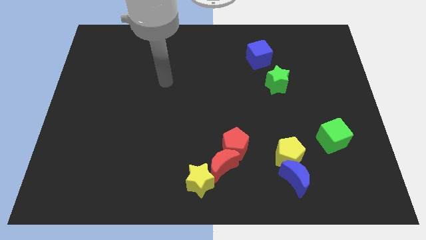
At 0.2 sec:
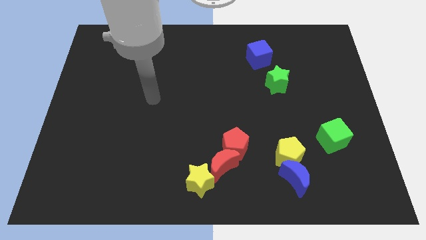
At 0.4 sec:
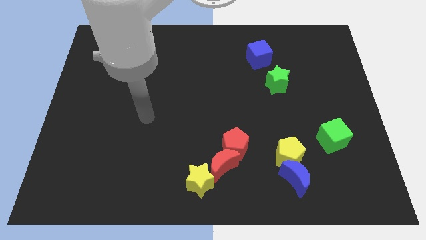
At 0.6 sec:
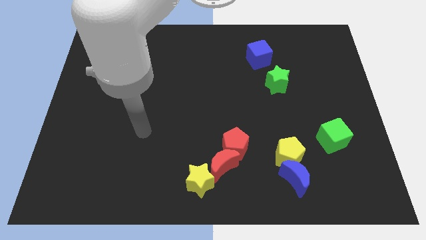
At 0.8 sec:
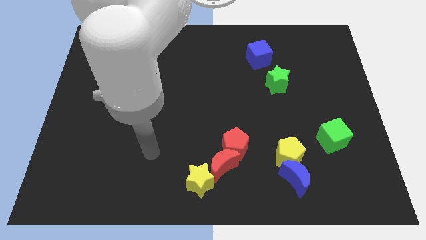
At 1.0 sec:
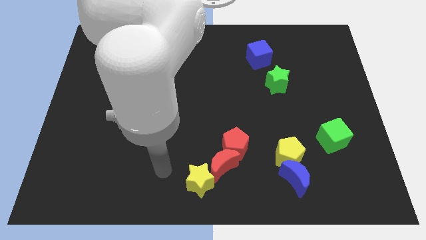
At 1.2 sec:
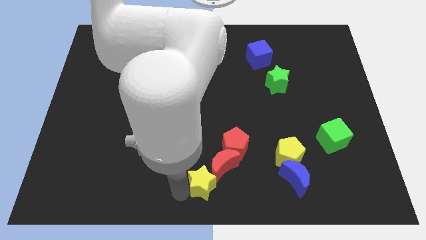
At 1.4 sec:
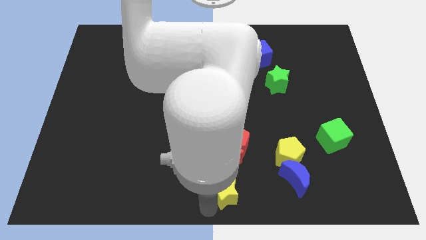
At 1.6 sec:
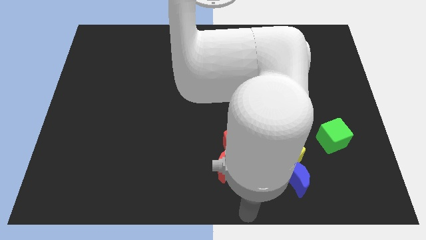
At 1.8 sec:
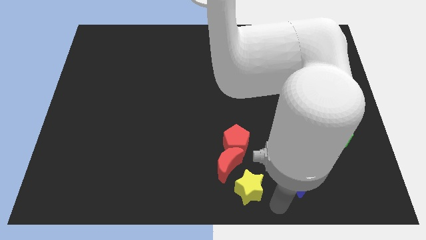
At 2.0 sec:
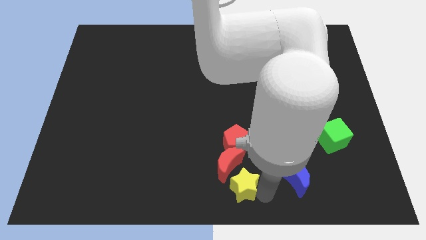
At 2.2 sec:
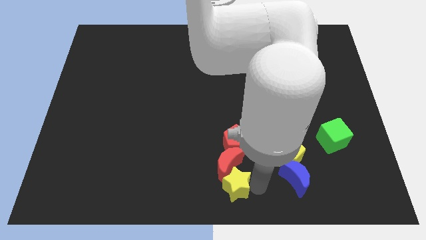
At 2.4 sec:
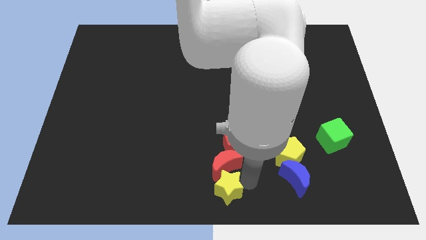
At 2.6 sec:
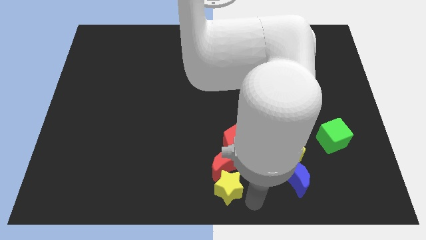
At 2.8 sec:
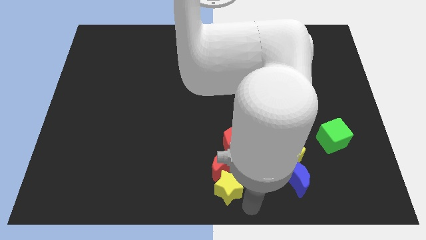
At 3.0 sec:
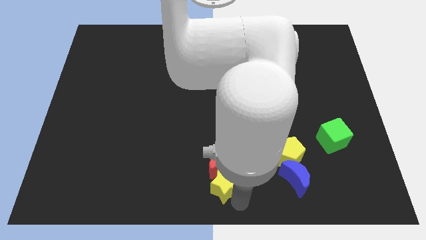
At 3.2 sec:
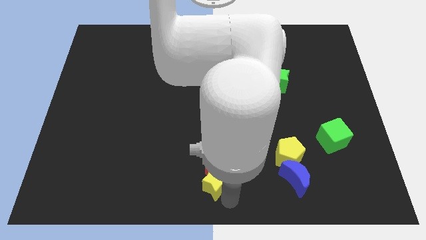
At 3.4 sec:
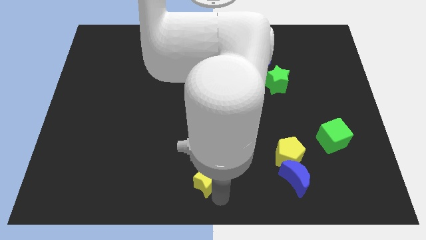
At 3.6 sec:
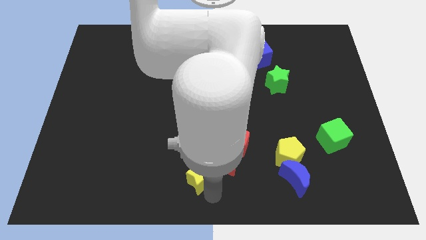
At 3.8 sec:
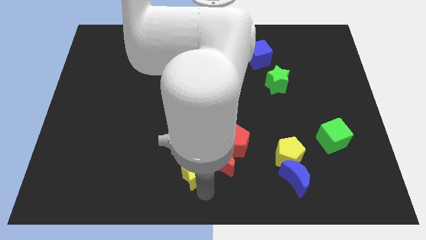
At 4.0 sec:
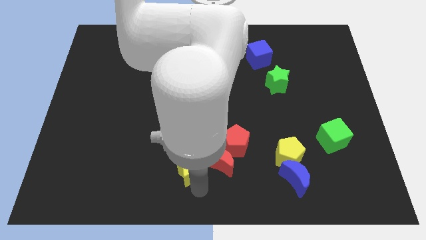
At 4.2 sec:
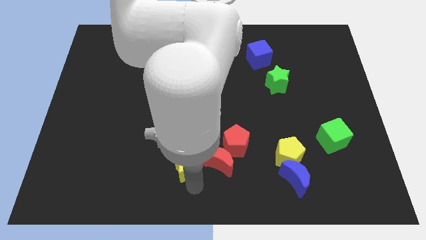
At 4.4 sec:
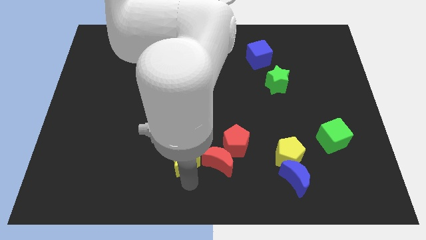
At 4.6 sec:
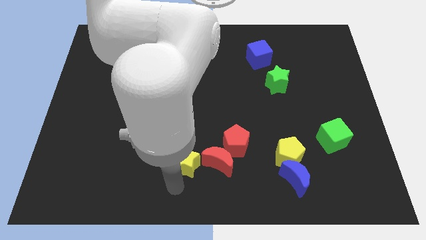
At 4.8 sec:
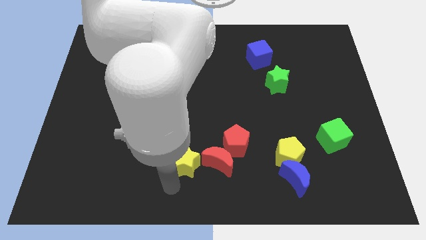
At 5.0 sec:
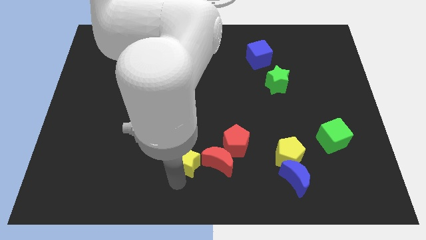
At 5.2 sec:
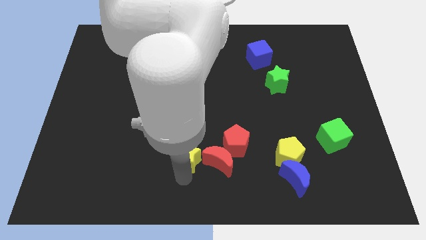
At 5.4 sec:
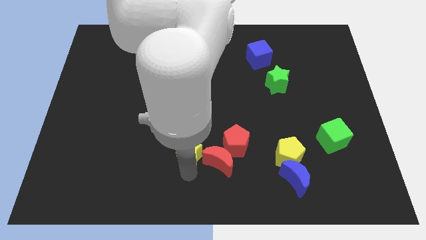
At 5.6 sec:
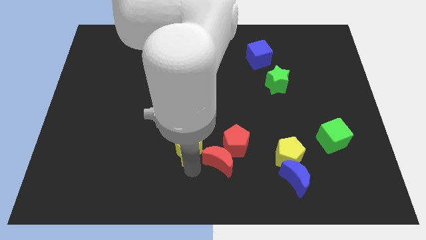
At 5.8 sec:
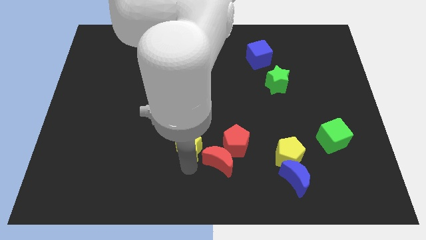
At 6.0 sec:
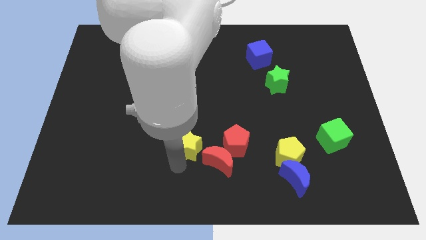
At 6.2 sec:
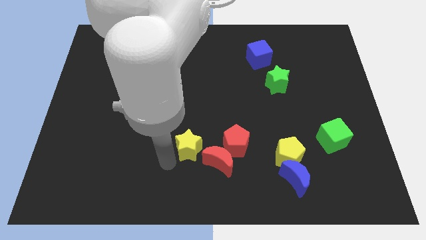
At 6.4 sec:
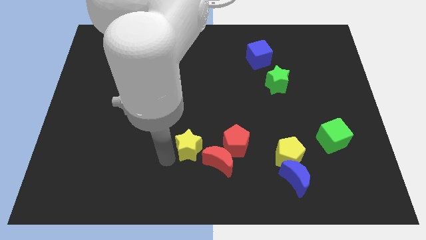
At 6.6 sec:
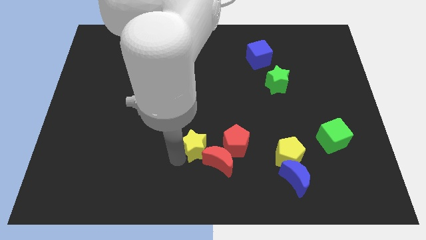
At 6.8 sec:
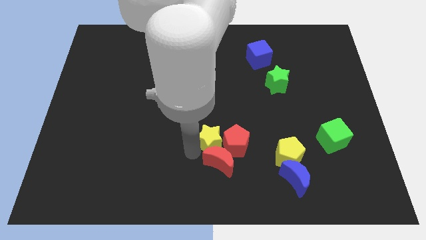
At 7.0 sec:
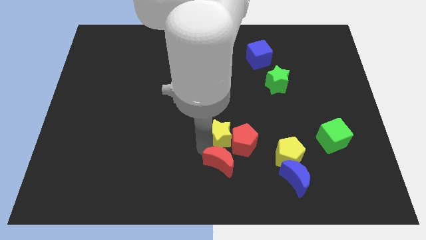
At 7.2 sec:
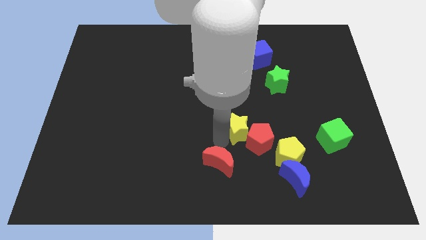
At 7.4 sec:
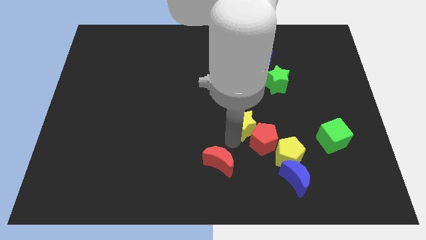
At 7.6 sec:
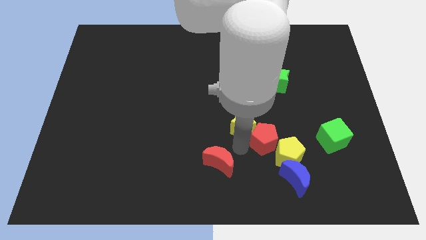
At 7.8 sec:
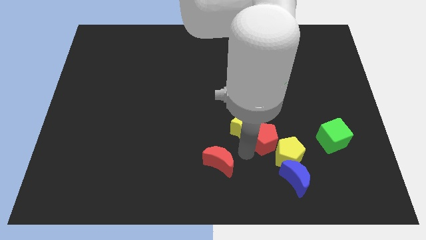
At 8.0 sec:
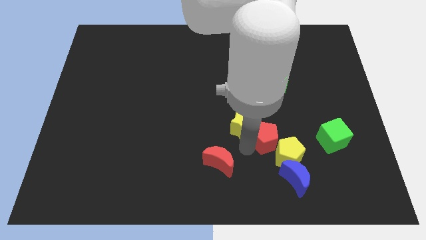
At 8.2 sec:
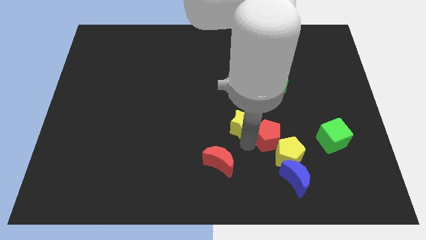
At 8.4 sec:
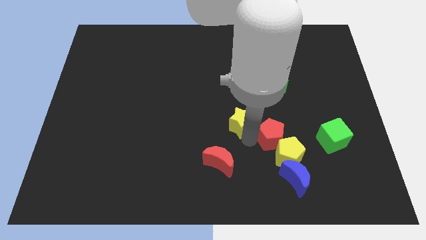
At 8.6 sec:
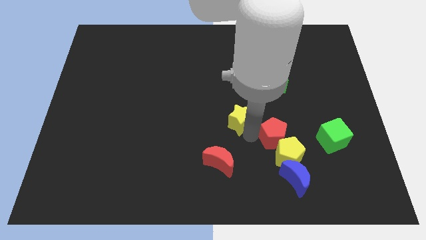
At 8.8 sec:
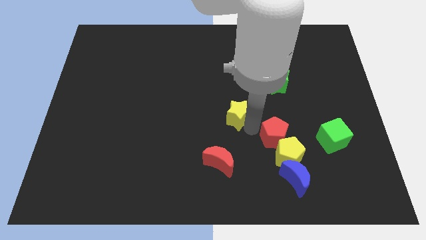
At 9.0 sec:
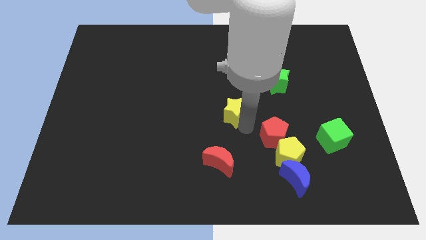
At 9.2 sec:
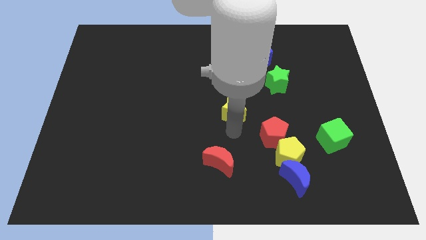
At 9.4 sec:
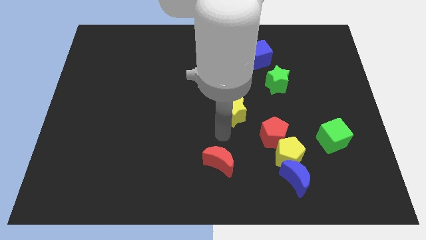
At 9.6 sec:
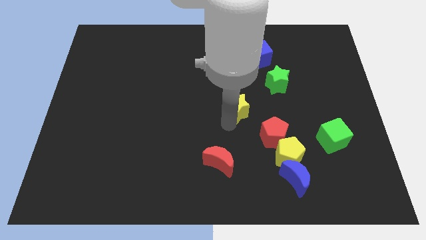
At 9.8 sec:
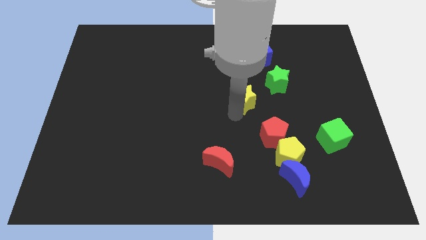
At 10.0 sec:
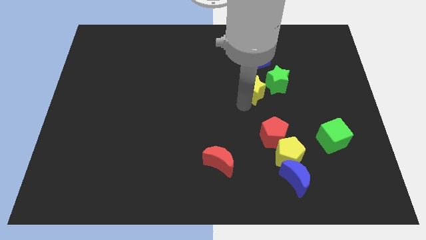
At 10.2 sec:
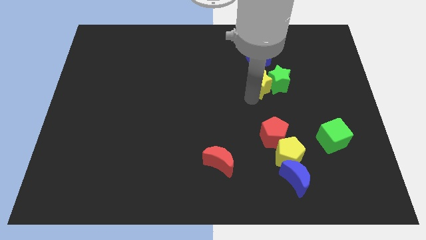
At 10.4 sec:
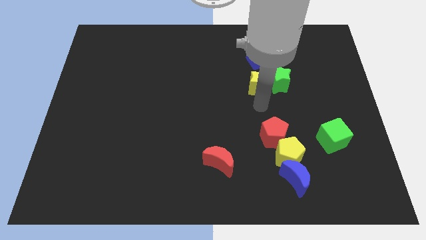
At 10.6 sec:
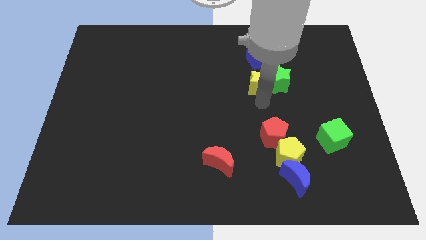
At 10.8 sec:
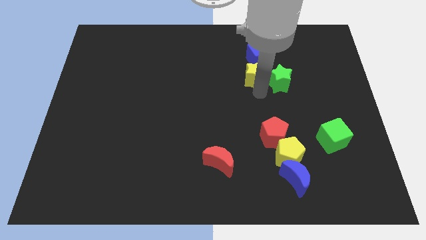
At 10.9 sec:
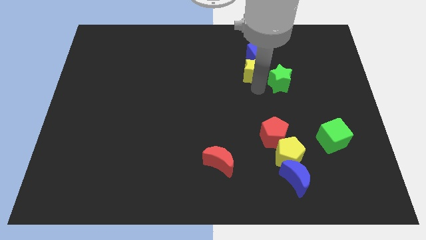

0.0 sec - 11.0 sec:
put the yellow star next to the blue cube

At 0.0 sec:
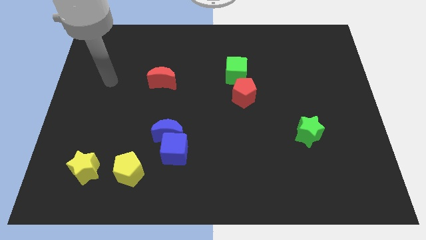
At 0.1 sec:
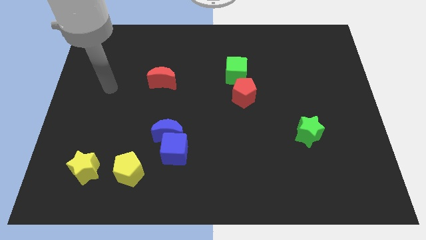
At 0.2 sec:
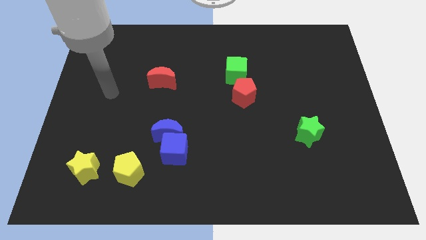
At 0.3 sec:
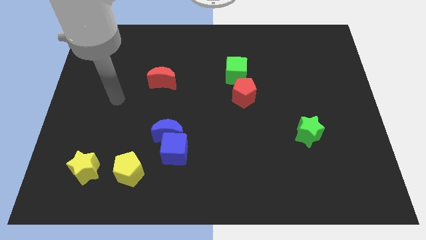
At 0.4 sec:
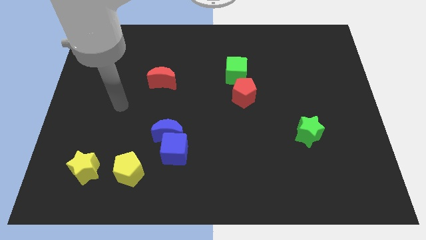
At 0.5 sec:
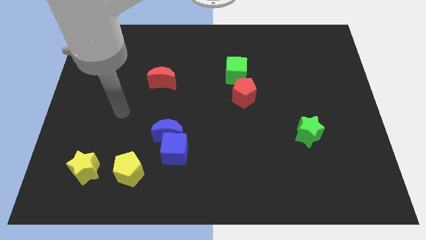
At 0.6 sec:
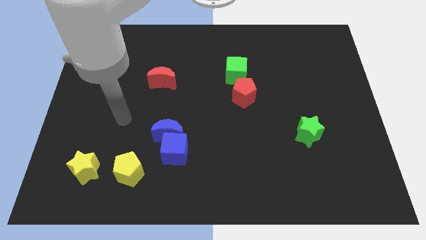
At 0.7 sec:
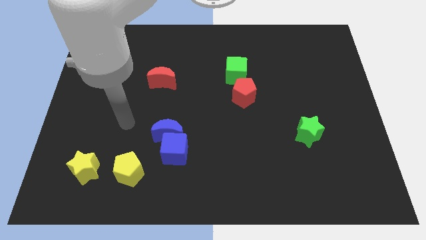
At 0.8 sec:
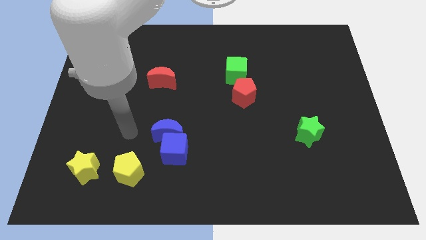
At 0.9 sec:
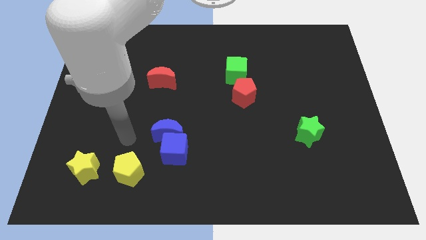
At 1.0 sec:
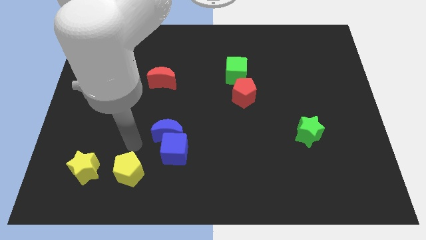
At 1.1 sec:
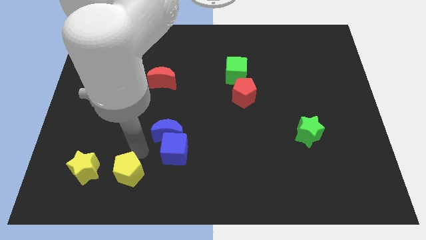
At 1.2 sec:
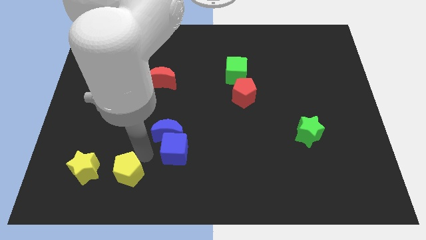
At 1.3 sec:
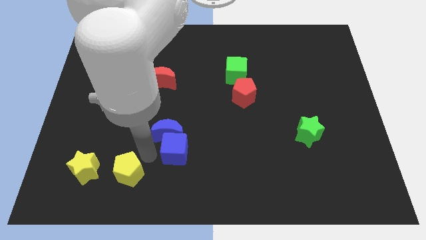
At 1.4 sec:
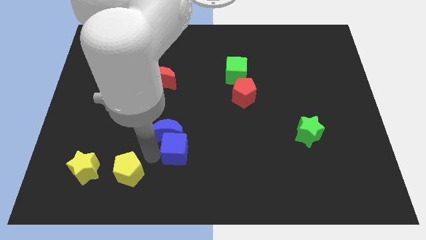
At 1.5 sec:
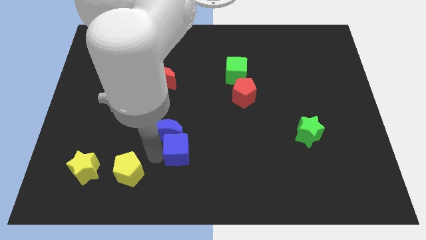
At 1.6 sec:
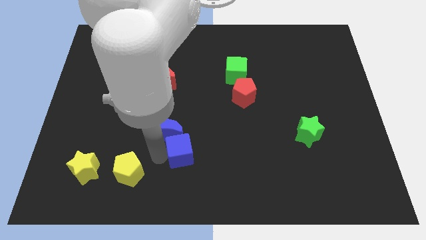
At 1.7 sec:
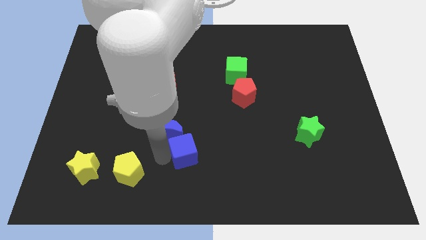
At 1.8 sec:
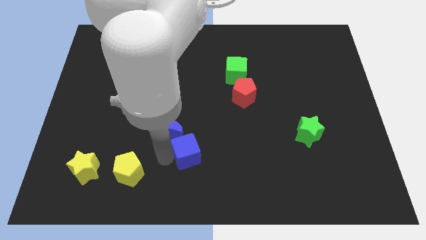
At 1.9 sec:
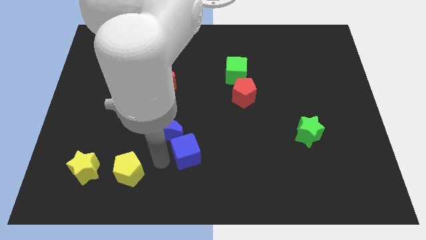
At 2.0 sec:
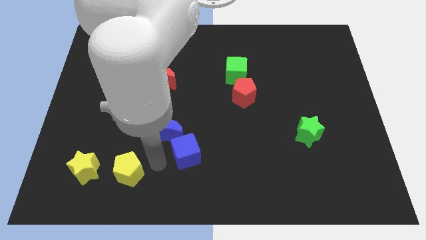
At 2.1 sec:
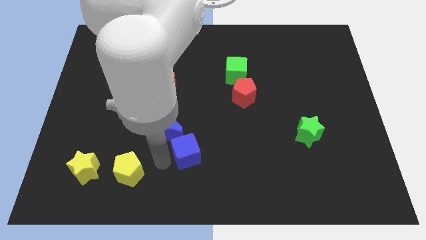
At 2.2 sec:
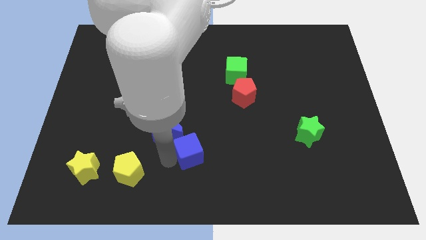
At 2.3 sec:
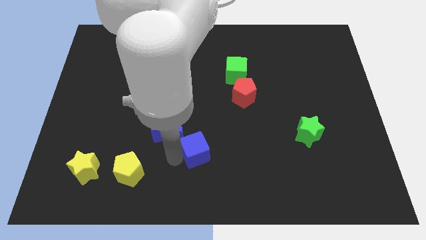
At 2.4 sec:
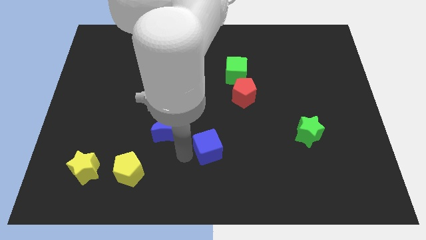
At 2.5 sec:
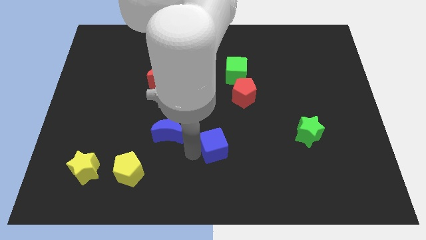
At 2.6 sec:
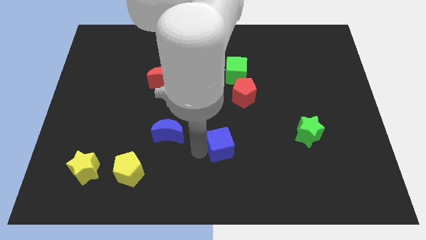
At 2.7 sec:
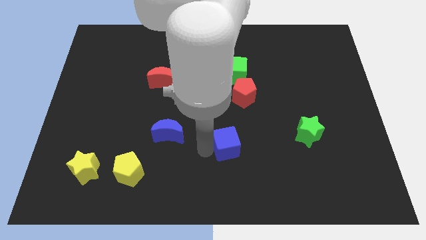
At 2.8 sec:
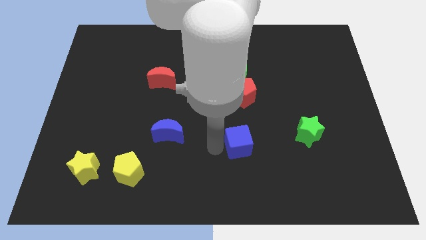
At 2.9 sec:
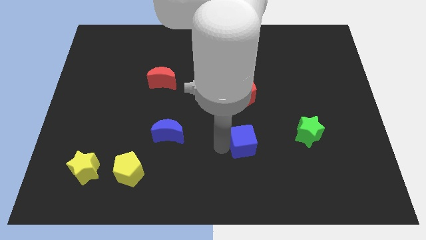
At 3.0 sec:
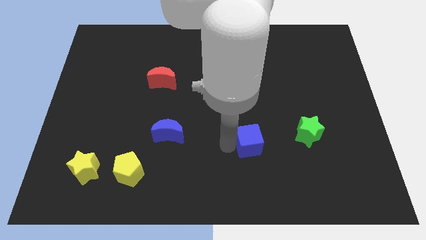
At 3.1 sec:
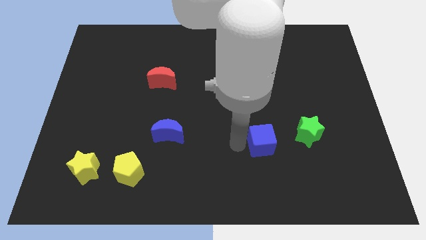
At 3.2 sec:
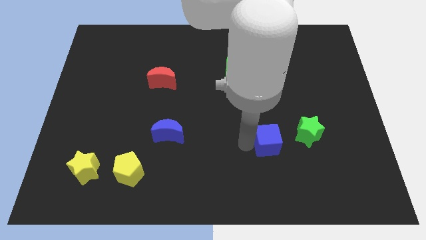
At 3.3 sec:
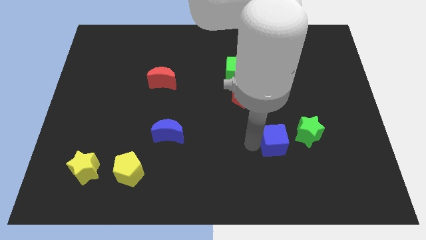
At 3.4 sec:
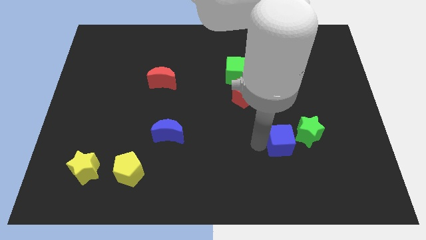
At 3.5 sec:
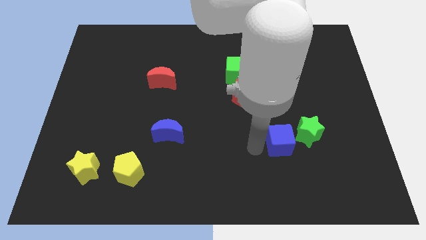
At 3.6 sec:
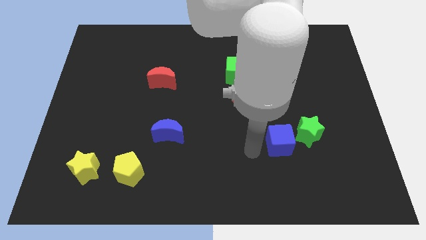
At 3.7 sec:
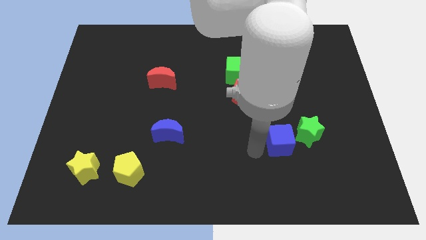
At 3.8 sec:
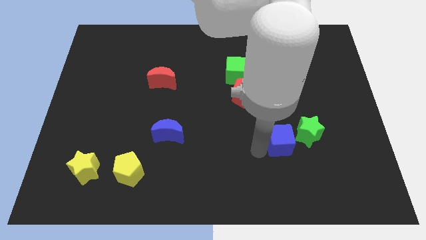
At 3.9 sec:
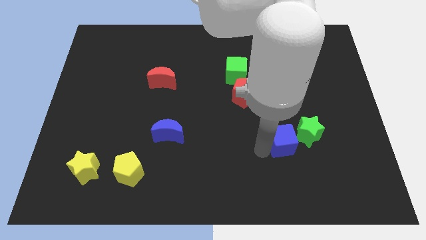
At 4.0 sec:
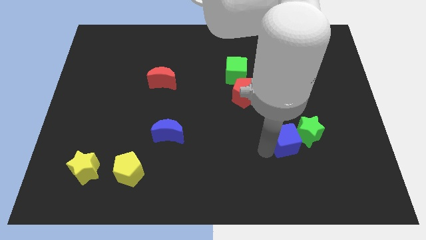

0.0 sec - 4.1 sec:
push the blue cube next to the green star
